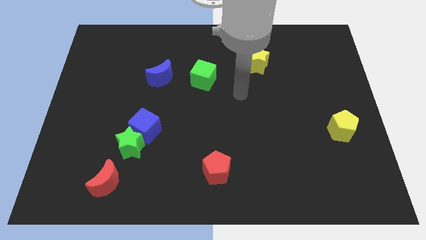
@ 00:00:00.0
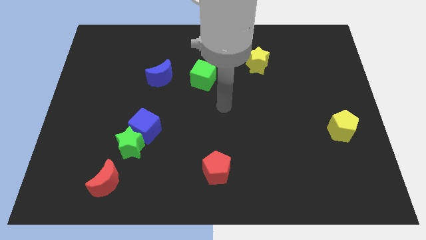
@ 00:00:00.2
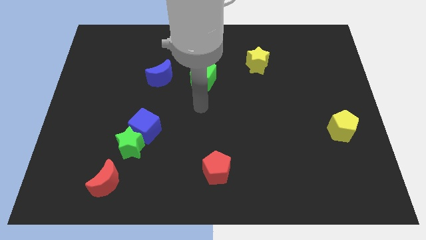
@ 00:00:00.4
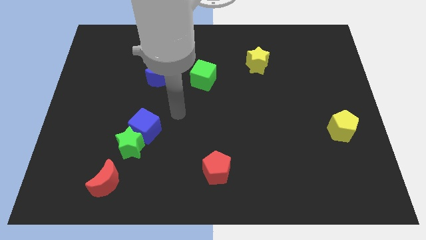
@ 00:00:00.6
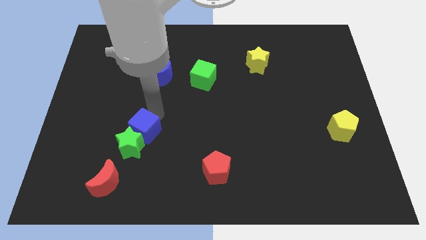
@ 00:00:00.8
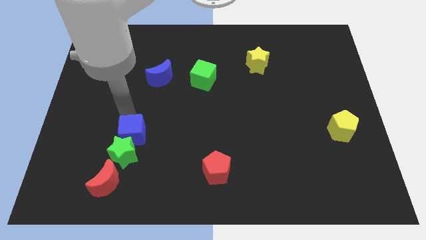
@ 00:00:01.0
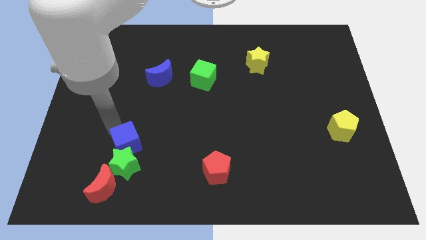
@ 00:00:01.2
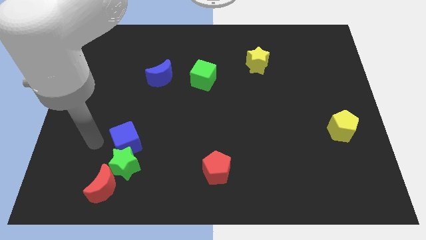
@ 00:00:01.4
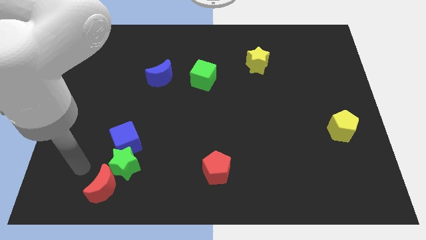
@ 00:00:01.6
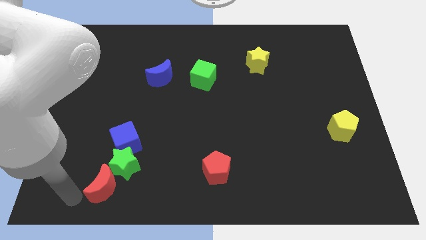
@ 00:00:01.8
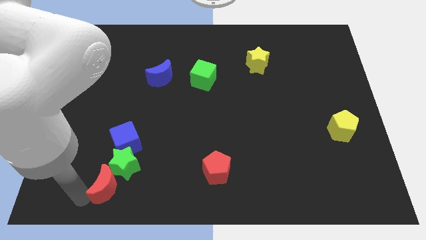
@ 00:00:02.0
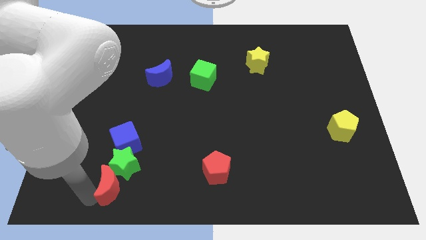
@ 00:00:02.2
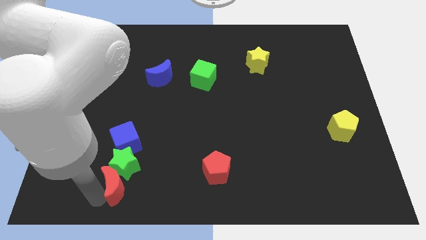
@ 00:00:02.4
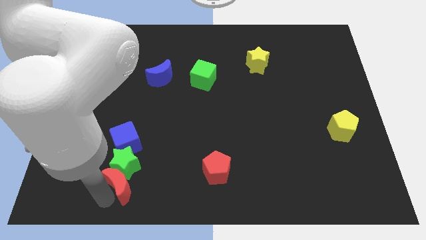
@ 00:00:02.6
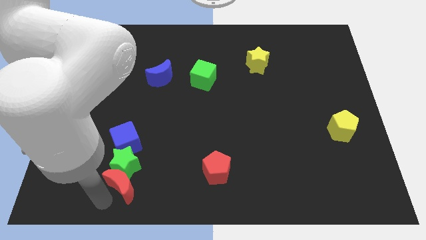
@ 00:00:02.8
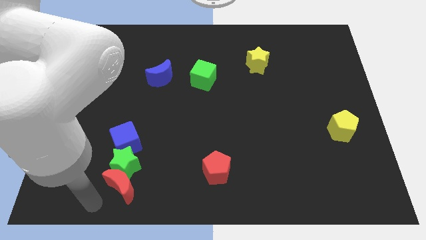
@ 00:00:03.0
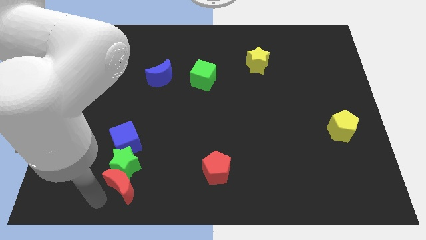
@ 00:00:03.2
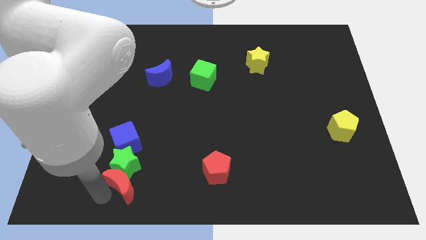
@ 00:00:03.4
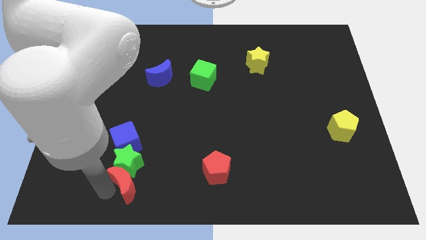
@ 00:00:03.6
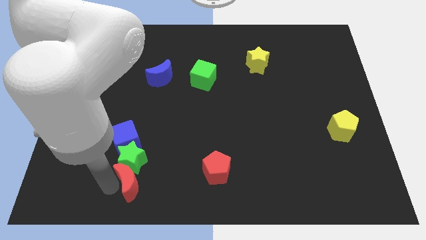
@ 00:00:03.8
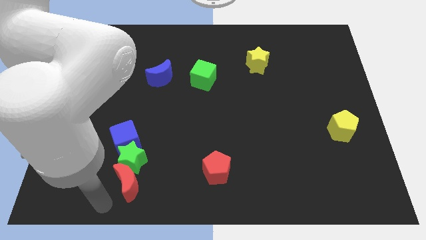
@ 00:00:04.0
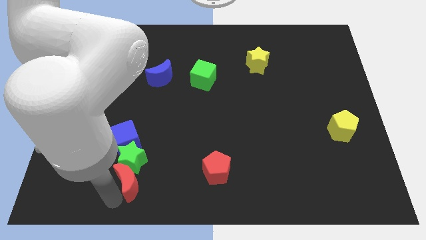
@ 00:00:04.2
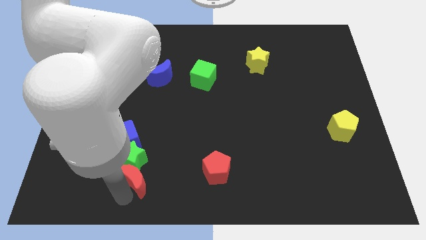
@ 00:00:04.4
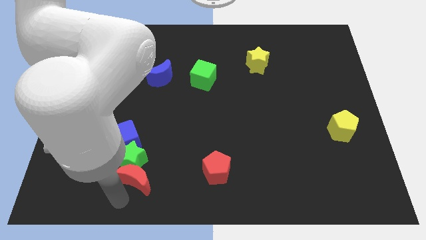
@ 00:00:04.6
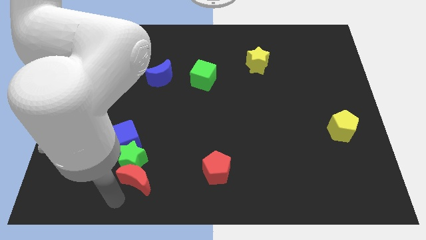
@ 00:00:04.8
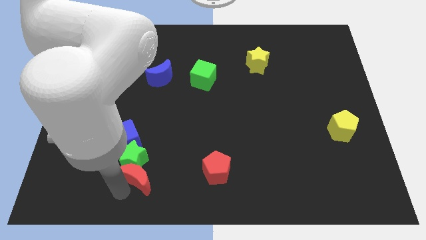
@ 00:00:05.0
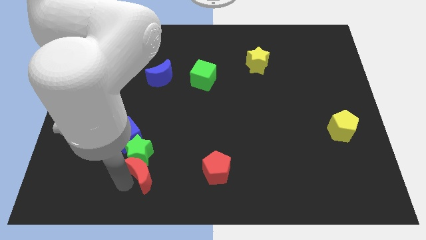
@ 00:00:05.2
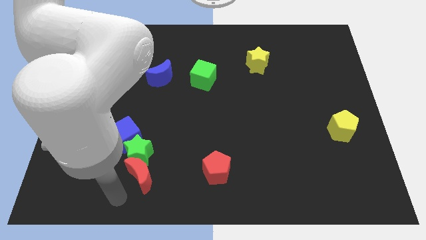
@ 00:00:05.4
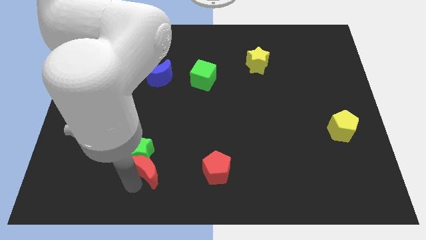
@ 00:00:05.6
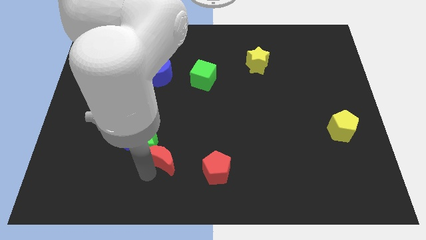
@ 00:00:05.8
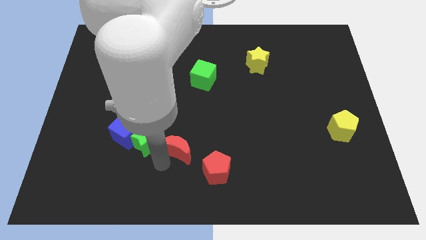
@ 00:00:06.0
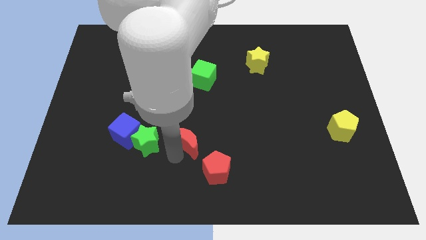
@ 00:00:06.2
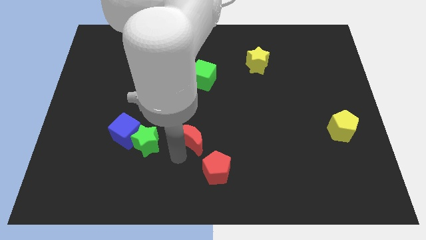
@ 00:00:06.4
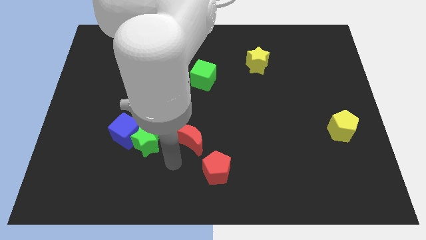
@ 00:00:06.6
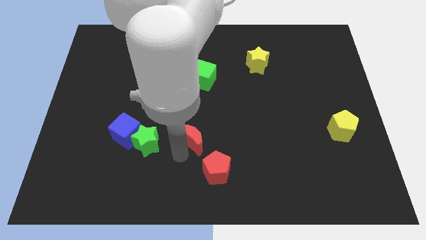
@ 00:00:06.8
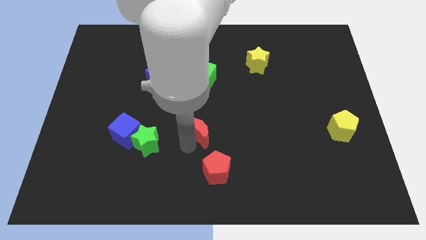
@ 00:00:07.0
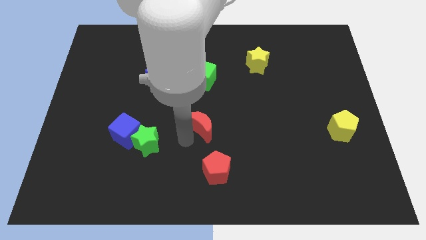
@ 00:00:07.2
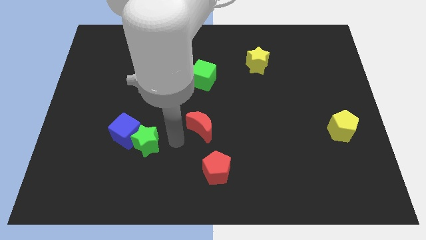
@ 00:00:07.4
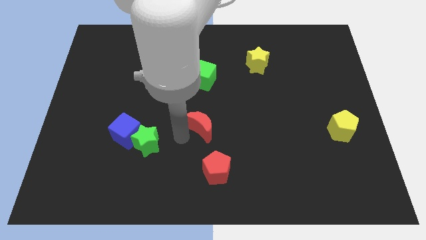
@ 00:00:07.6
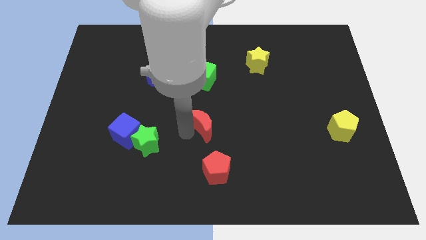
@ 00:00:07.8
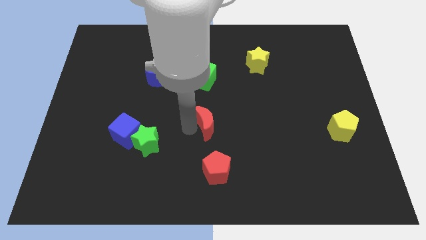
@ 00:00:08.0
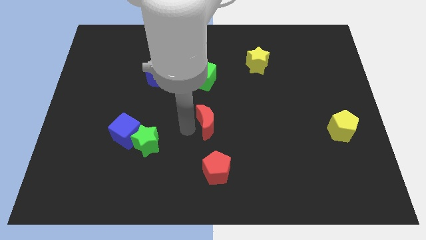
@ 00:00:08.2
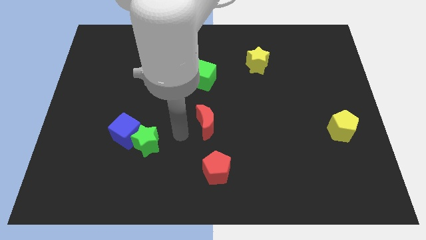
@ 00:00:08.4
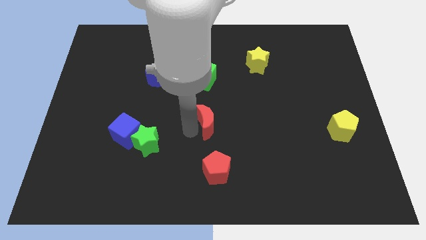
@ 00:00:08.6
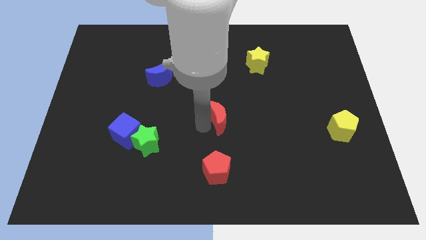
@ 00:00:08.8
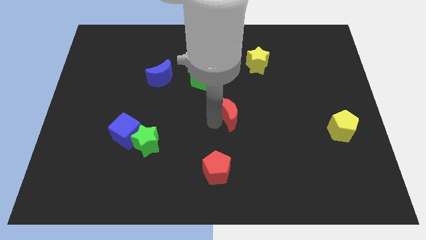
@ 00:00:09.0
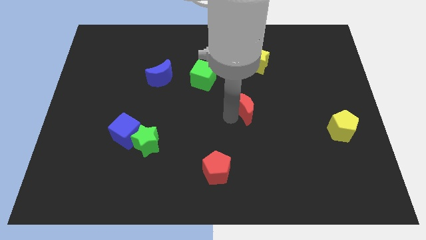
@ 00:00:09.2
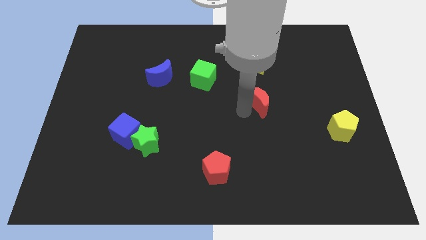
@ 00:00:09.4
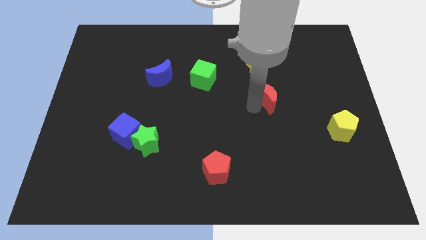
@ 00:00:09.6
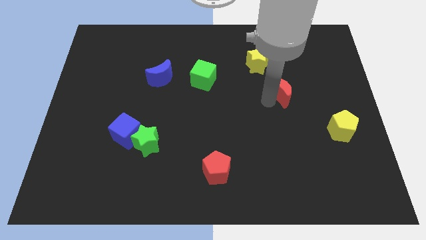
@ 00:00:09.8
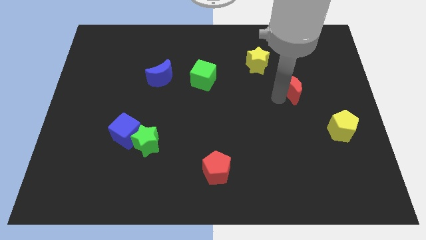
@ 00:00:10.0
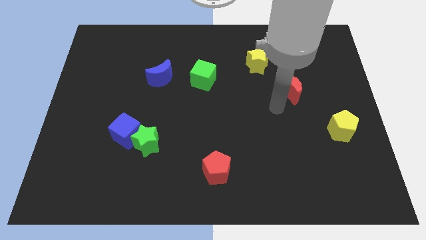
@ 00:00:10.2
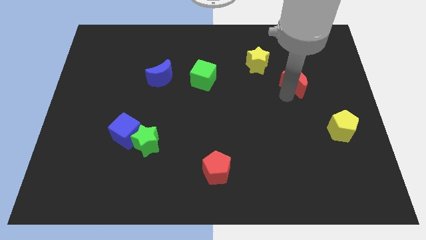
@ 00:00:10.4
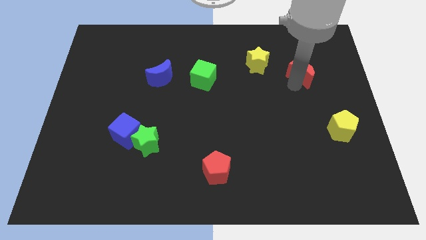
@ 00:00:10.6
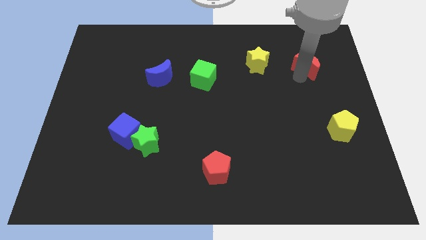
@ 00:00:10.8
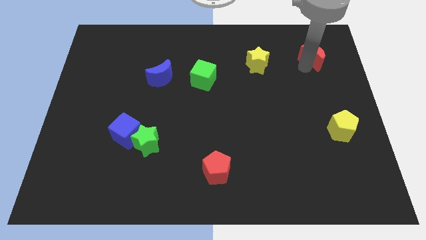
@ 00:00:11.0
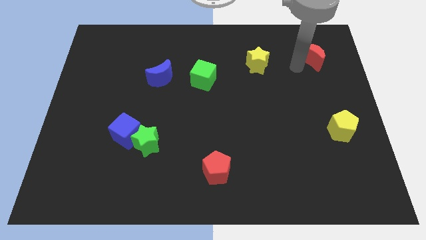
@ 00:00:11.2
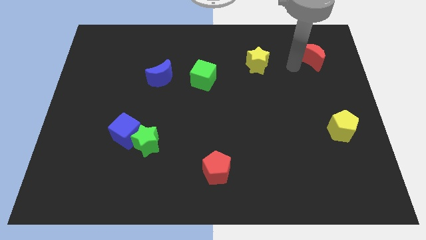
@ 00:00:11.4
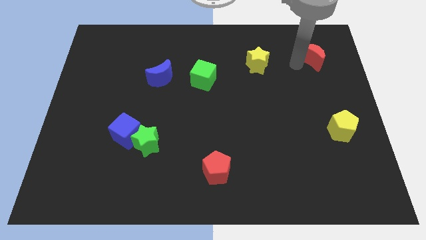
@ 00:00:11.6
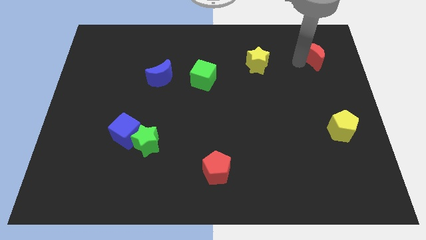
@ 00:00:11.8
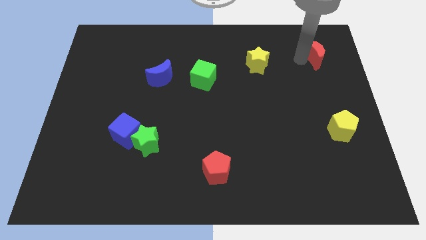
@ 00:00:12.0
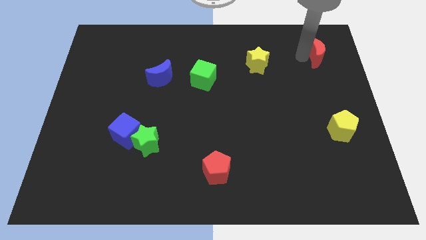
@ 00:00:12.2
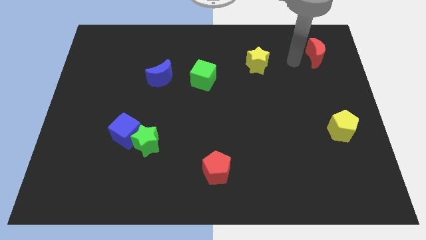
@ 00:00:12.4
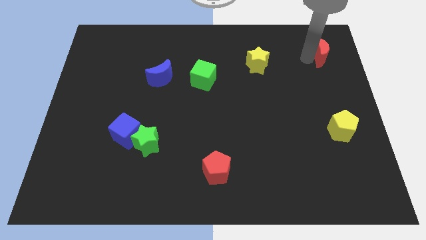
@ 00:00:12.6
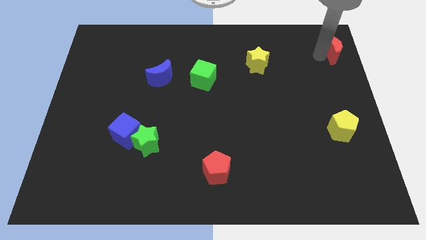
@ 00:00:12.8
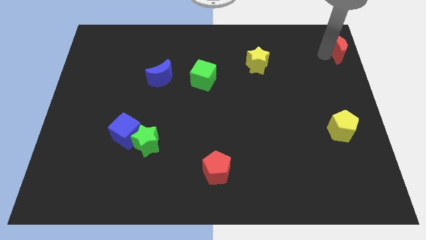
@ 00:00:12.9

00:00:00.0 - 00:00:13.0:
move the red moon to the top right corner

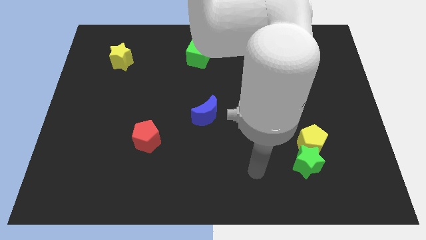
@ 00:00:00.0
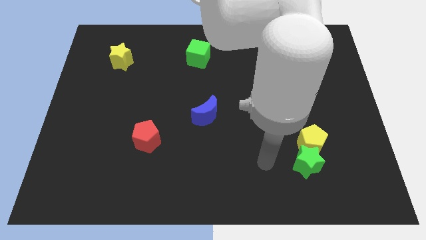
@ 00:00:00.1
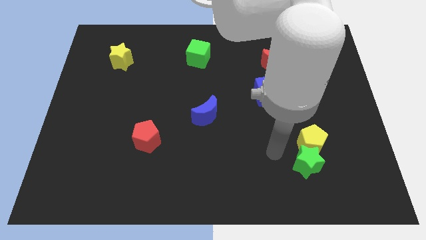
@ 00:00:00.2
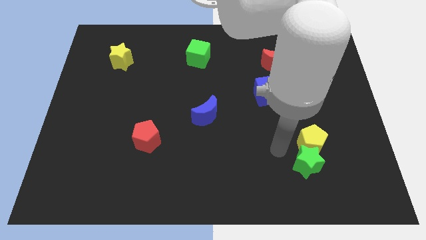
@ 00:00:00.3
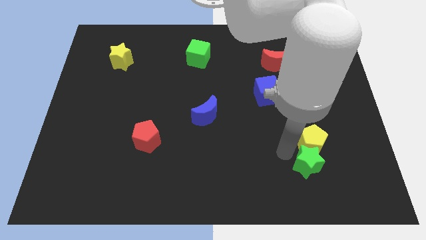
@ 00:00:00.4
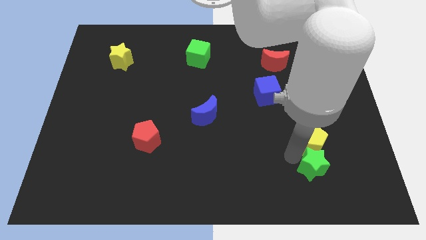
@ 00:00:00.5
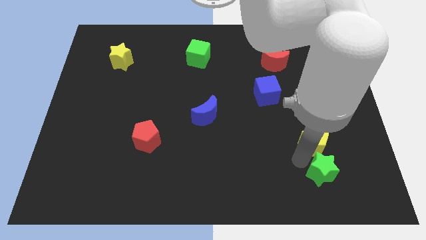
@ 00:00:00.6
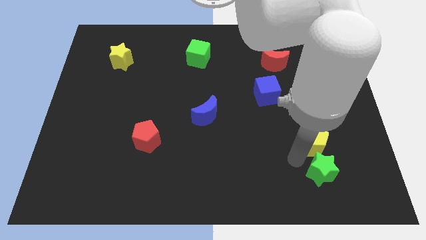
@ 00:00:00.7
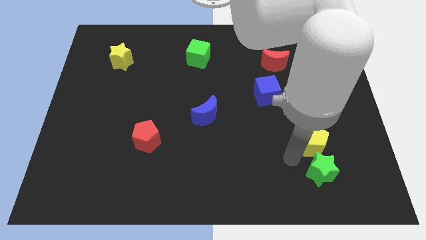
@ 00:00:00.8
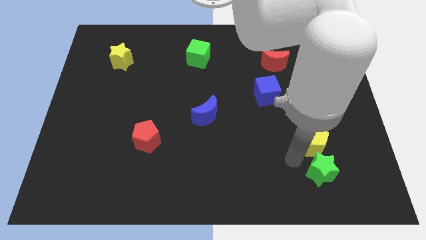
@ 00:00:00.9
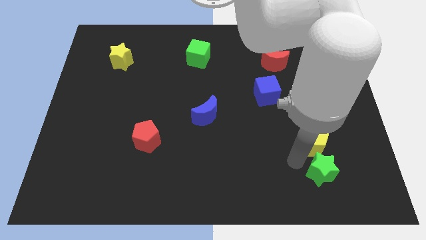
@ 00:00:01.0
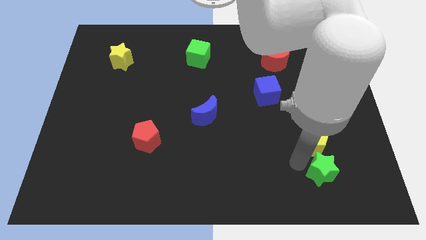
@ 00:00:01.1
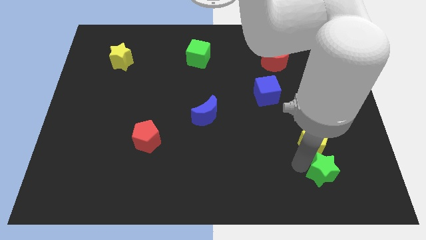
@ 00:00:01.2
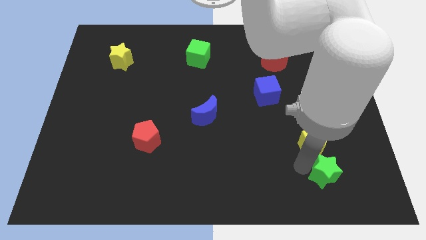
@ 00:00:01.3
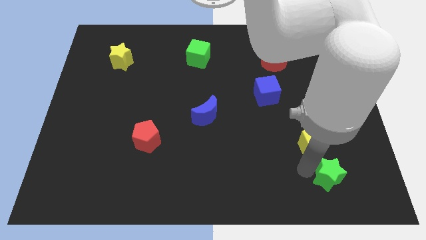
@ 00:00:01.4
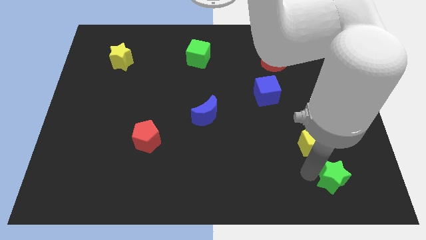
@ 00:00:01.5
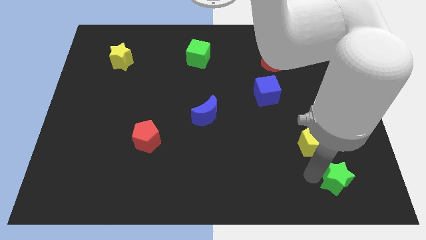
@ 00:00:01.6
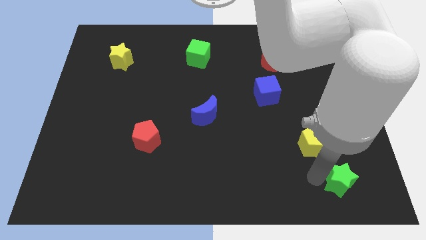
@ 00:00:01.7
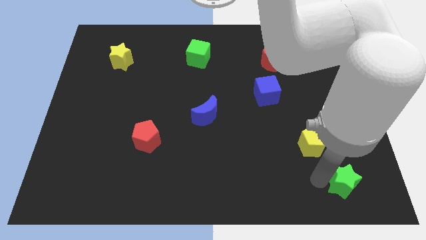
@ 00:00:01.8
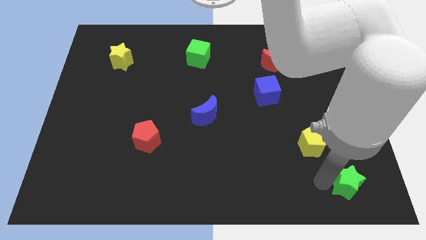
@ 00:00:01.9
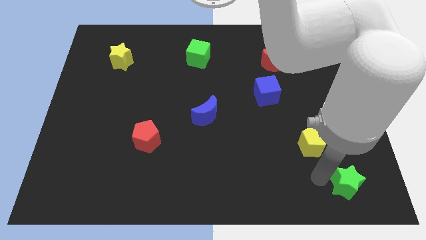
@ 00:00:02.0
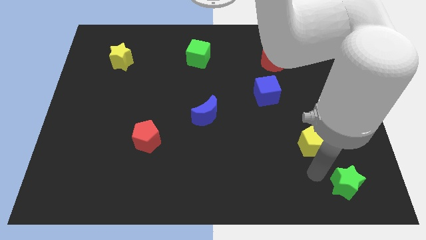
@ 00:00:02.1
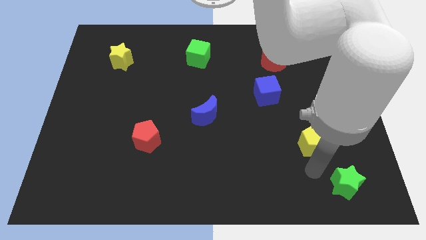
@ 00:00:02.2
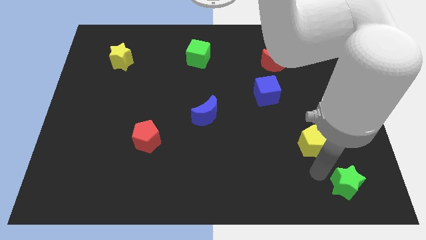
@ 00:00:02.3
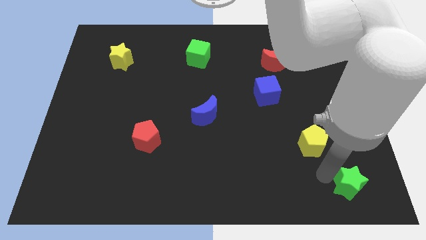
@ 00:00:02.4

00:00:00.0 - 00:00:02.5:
put the green star to the bottom right corner
